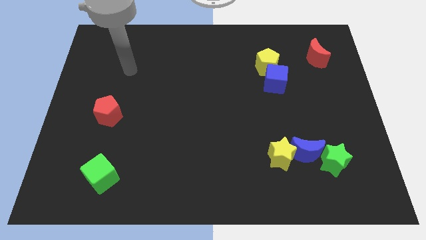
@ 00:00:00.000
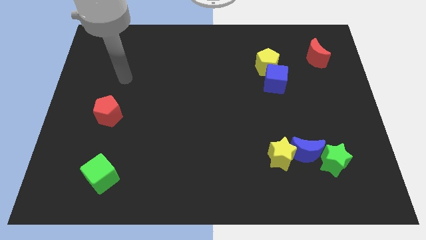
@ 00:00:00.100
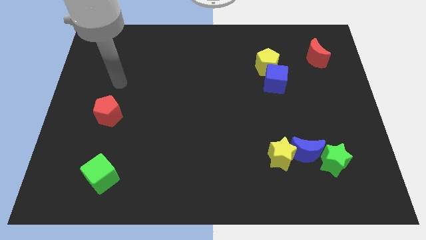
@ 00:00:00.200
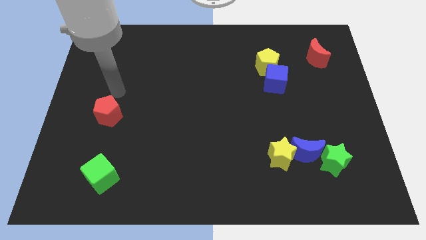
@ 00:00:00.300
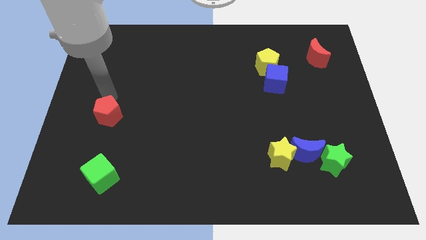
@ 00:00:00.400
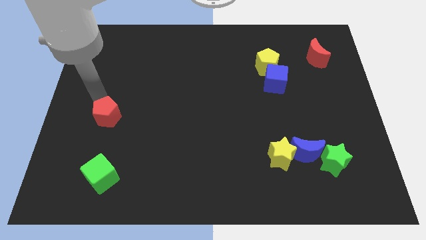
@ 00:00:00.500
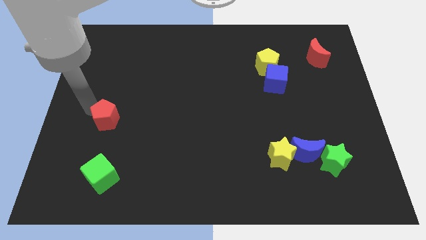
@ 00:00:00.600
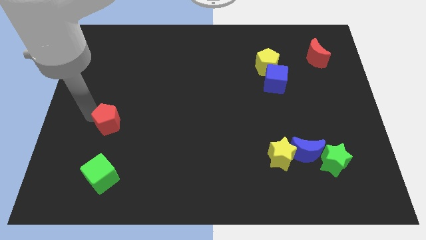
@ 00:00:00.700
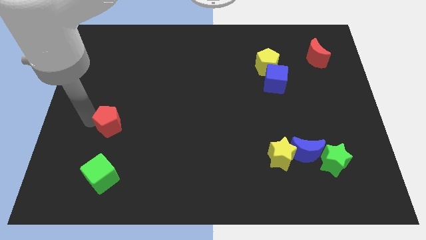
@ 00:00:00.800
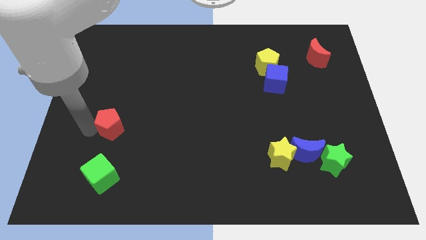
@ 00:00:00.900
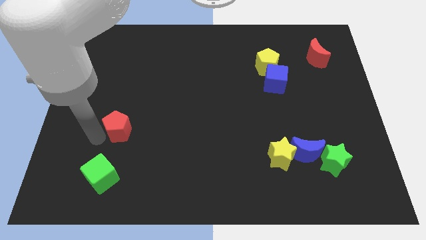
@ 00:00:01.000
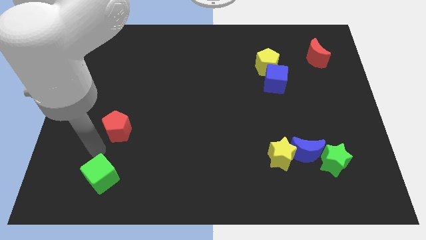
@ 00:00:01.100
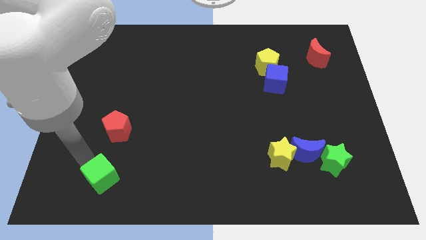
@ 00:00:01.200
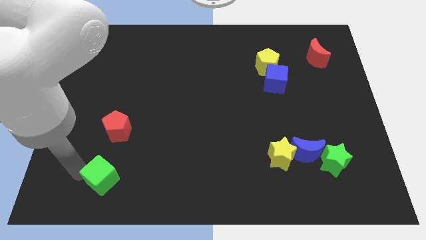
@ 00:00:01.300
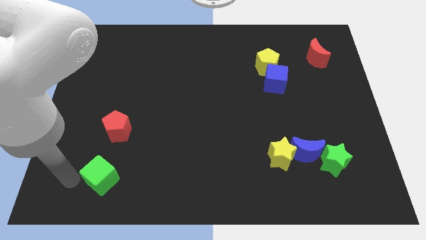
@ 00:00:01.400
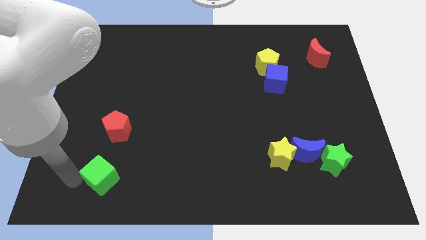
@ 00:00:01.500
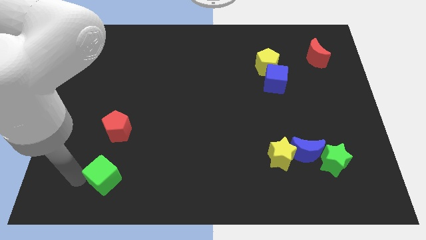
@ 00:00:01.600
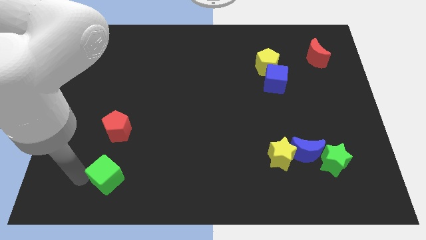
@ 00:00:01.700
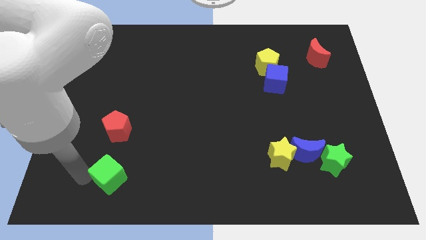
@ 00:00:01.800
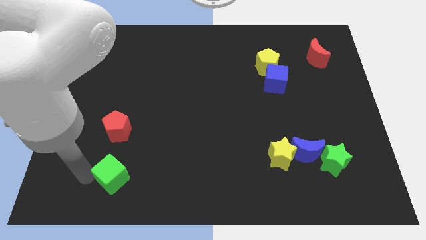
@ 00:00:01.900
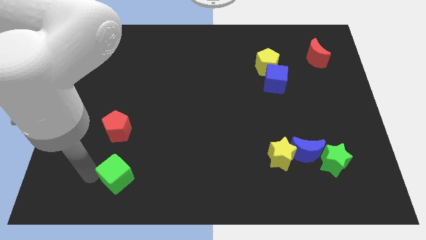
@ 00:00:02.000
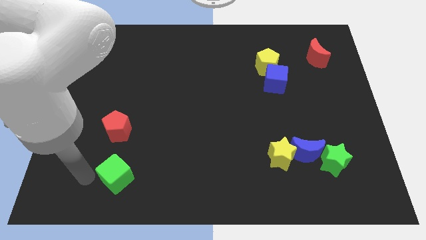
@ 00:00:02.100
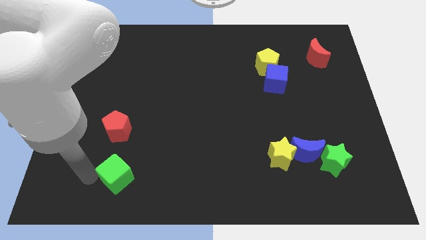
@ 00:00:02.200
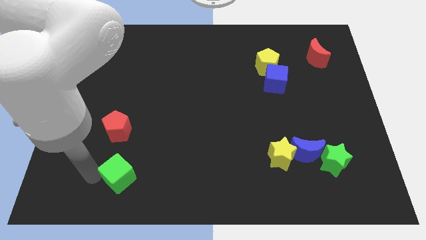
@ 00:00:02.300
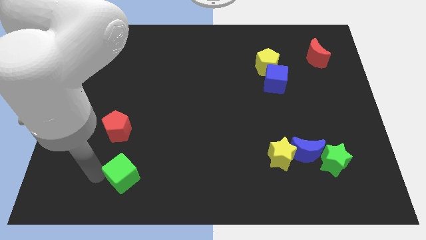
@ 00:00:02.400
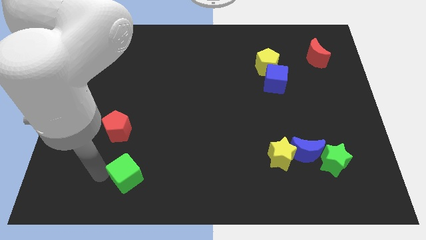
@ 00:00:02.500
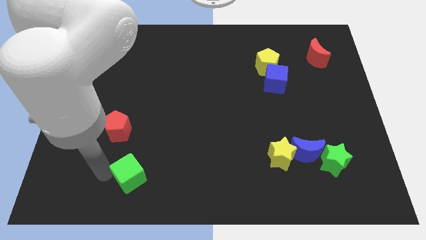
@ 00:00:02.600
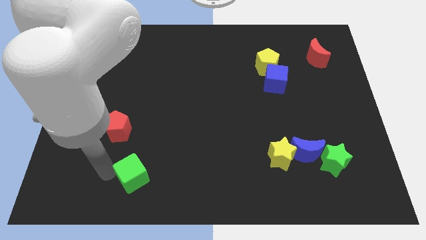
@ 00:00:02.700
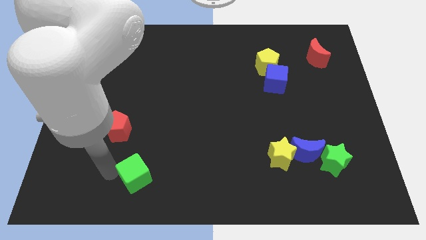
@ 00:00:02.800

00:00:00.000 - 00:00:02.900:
slightly push the green cube to the right

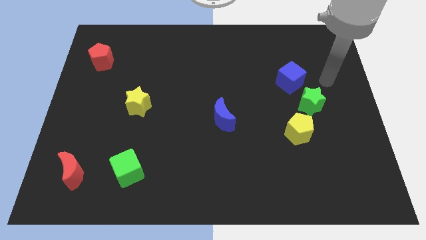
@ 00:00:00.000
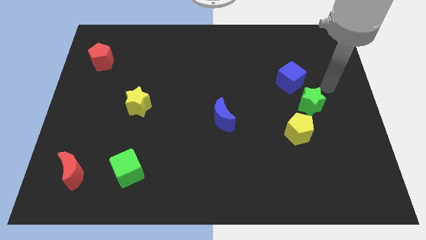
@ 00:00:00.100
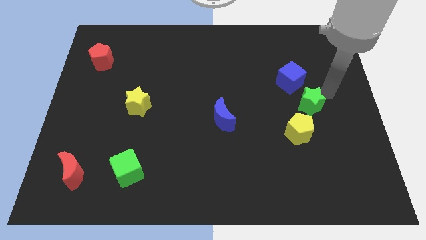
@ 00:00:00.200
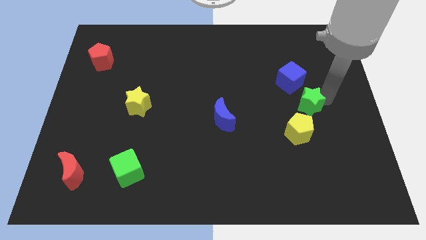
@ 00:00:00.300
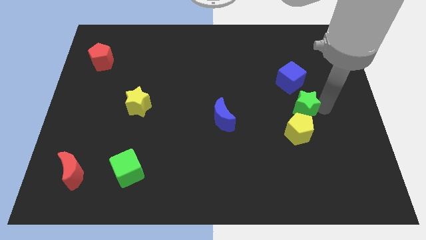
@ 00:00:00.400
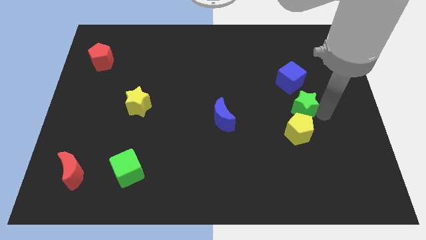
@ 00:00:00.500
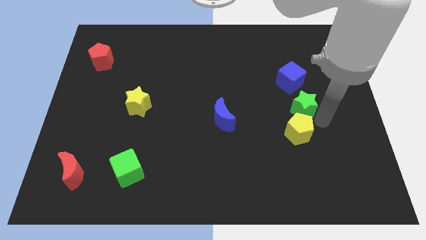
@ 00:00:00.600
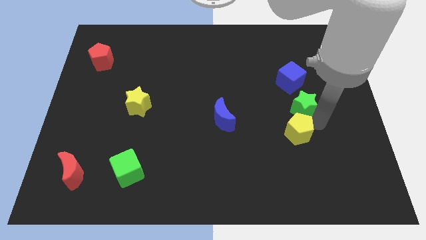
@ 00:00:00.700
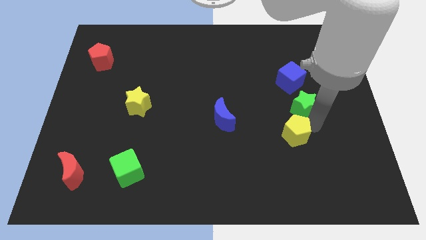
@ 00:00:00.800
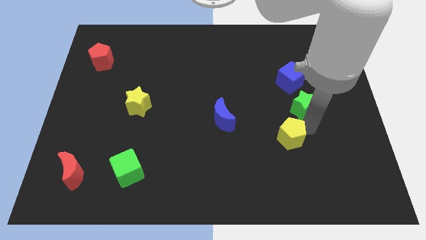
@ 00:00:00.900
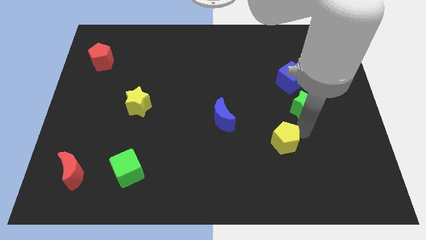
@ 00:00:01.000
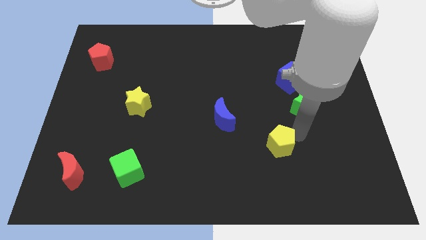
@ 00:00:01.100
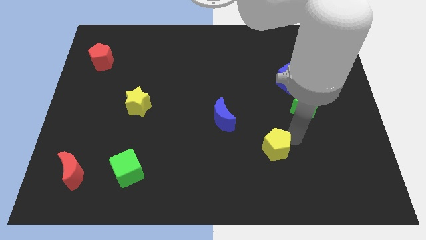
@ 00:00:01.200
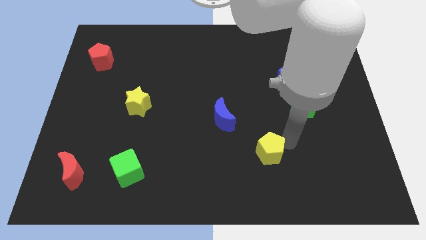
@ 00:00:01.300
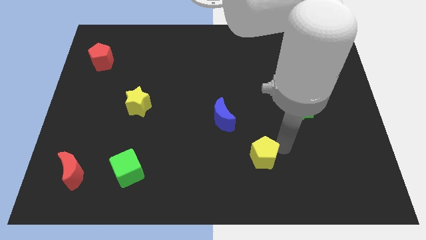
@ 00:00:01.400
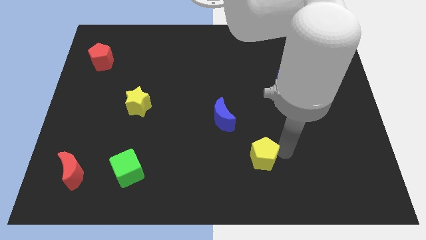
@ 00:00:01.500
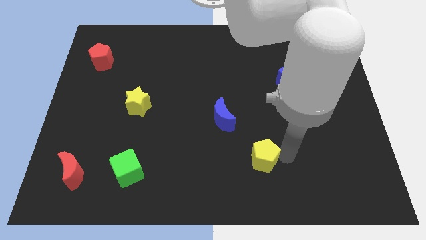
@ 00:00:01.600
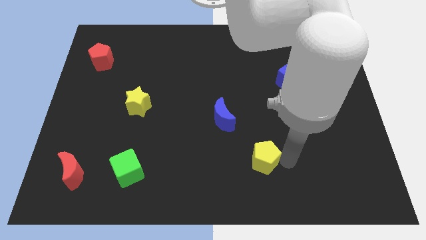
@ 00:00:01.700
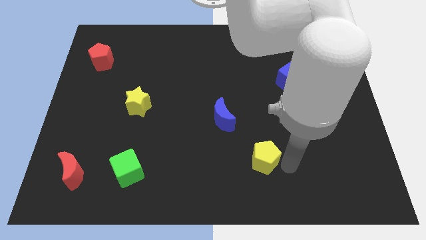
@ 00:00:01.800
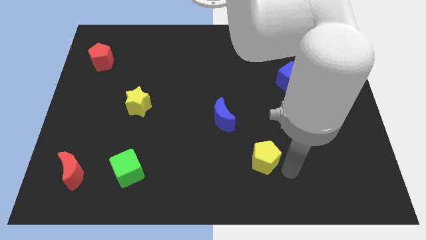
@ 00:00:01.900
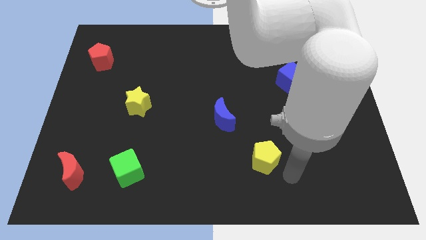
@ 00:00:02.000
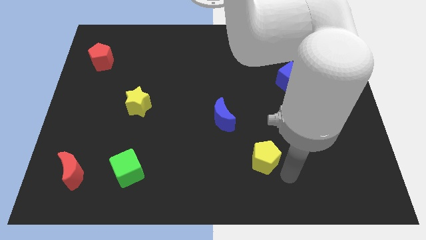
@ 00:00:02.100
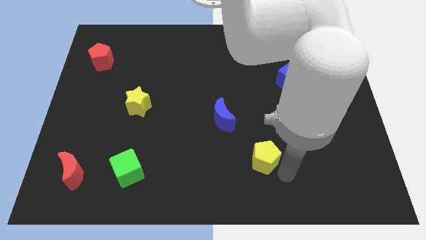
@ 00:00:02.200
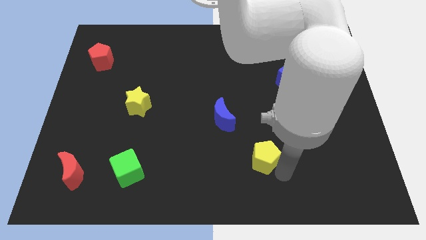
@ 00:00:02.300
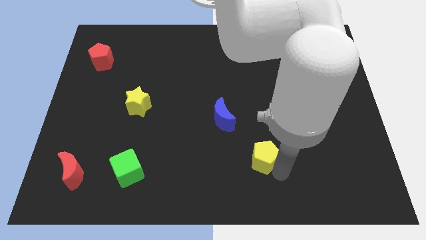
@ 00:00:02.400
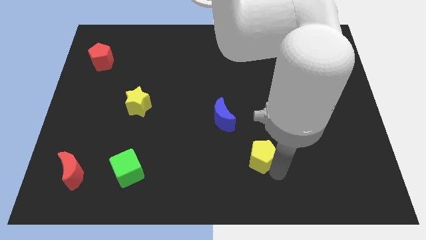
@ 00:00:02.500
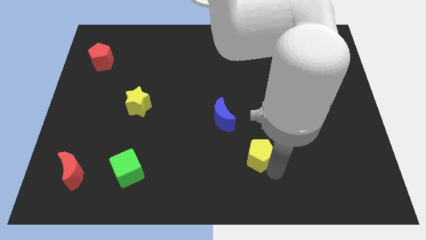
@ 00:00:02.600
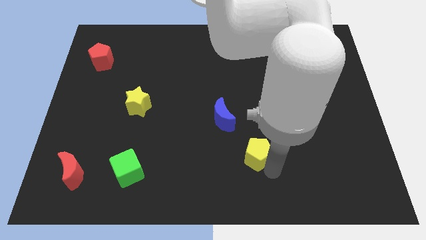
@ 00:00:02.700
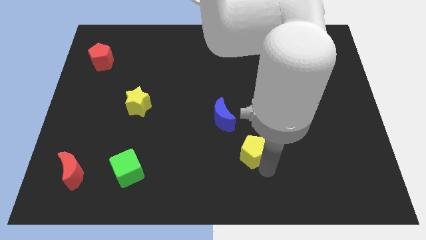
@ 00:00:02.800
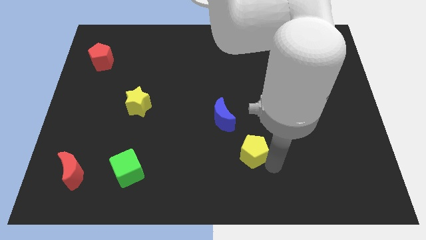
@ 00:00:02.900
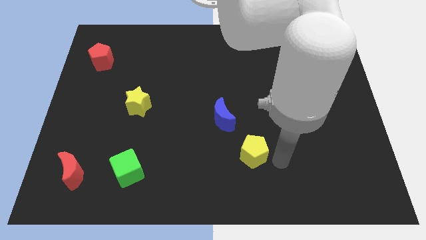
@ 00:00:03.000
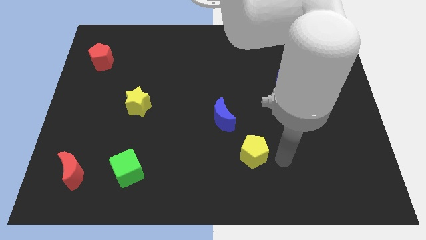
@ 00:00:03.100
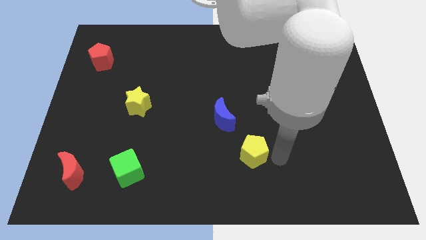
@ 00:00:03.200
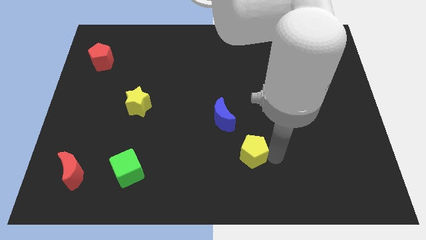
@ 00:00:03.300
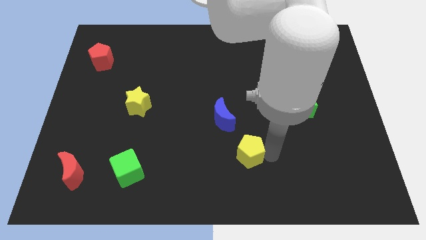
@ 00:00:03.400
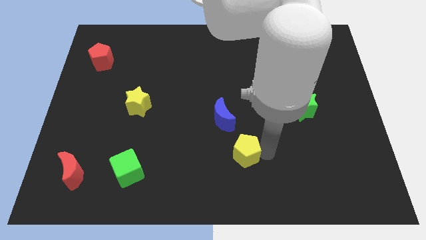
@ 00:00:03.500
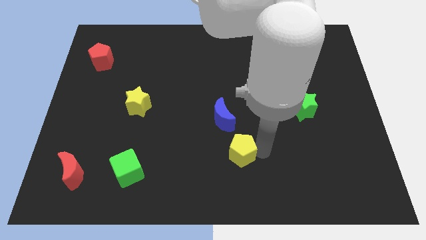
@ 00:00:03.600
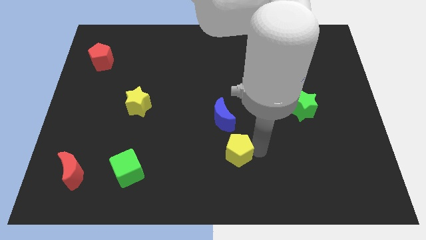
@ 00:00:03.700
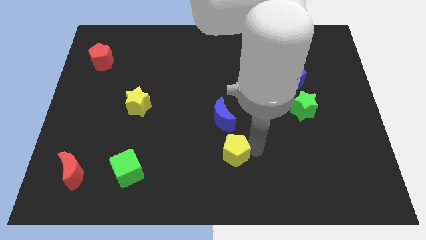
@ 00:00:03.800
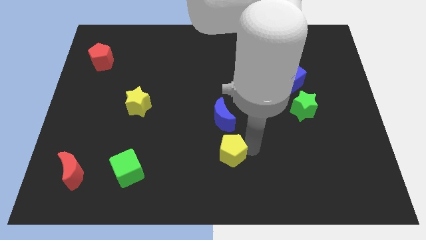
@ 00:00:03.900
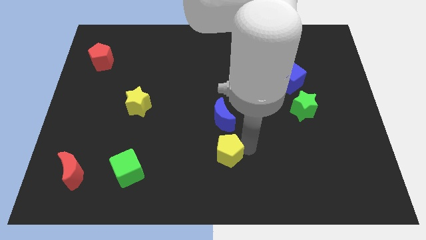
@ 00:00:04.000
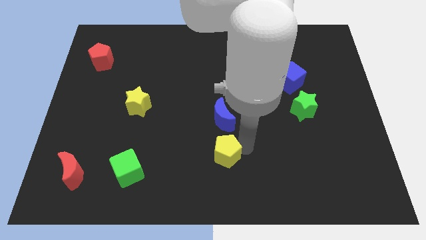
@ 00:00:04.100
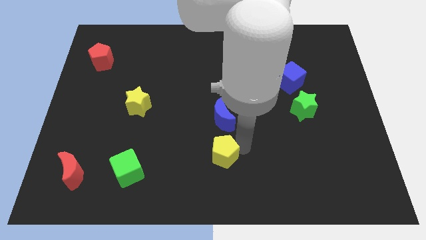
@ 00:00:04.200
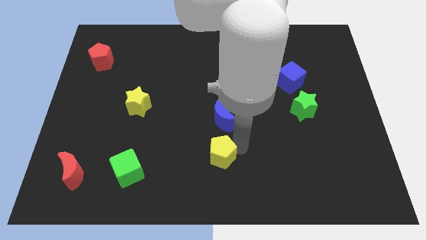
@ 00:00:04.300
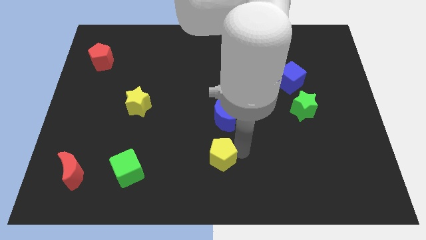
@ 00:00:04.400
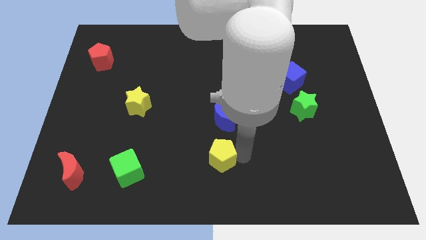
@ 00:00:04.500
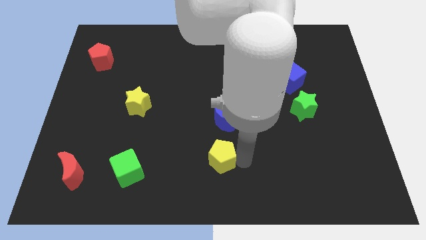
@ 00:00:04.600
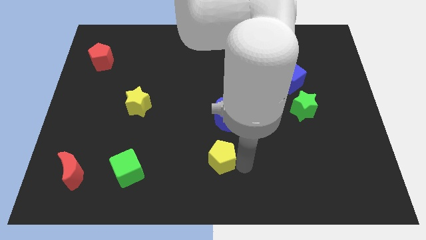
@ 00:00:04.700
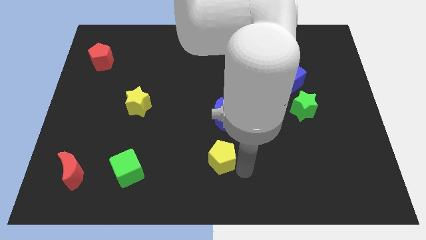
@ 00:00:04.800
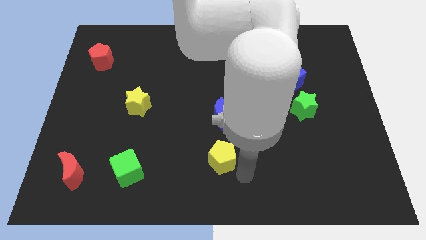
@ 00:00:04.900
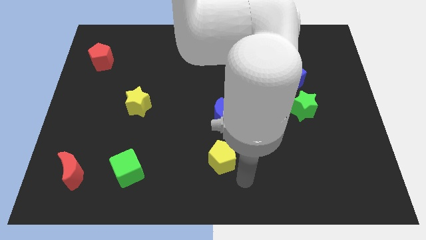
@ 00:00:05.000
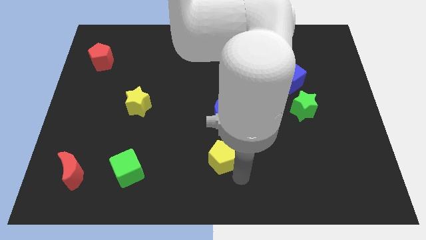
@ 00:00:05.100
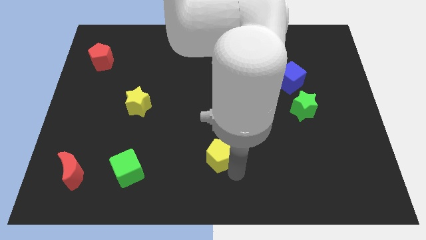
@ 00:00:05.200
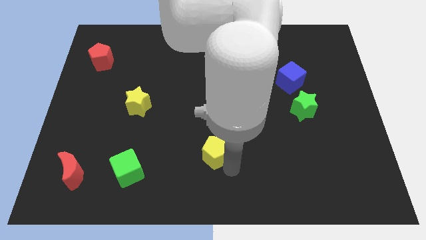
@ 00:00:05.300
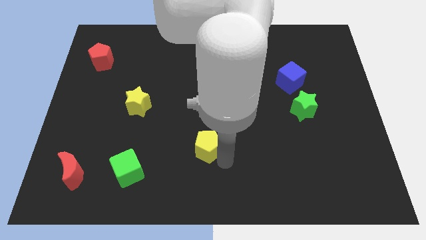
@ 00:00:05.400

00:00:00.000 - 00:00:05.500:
slide the yellow pentagon to the left
